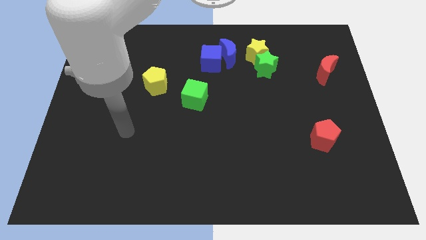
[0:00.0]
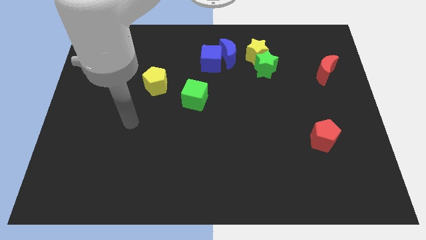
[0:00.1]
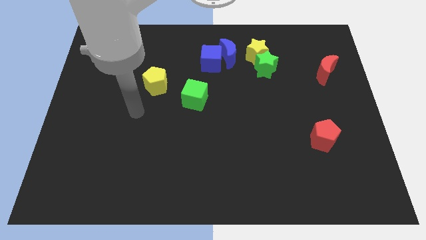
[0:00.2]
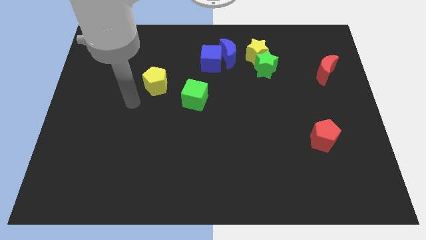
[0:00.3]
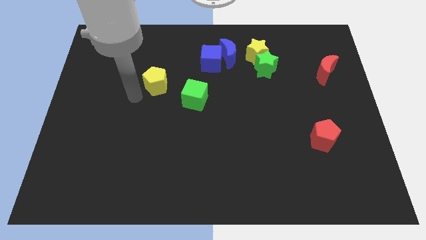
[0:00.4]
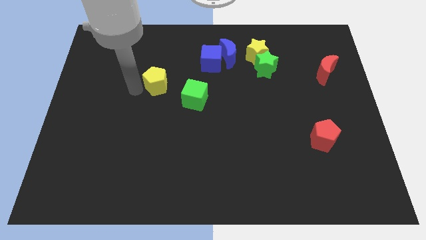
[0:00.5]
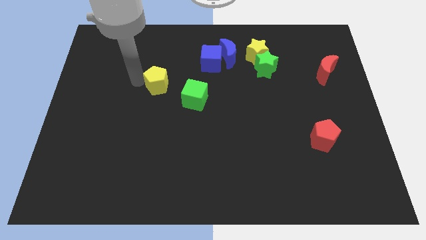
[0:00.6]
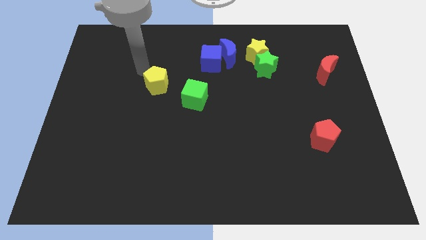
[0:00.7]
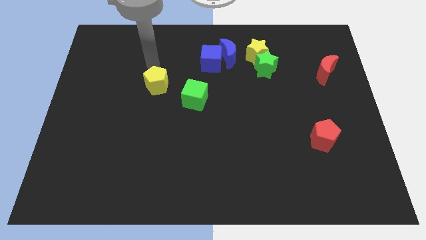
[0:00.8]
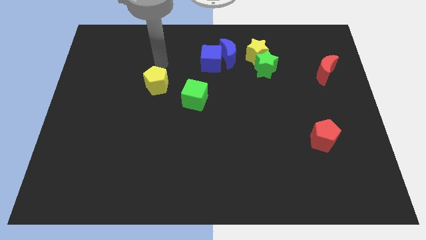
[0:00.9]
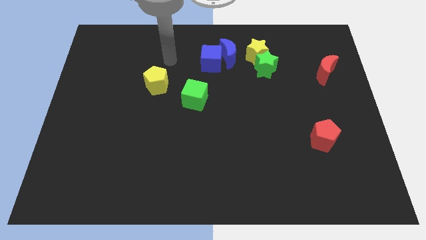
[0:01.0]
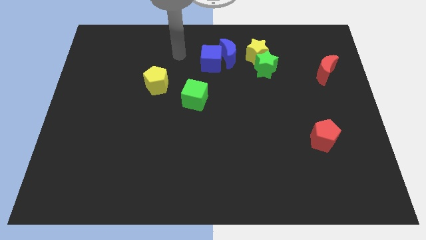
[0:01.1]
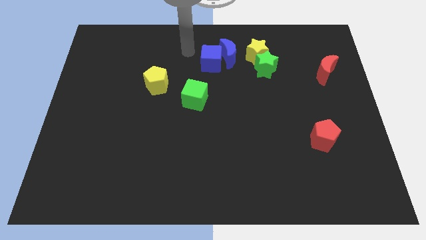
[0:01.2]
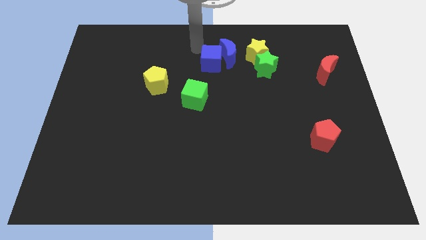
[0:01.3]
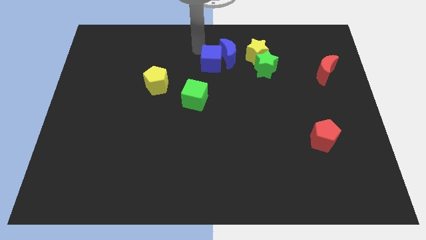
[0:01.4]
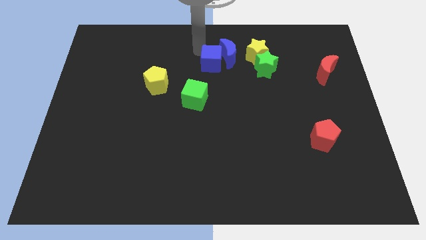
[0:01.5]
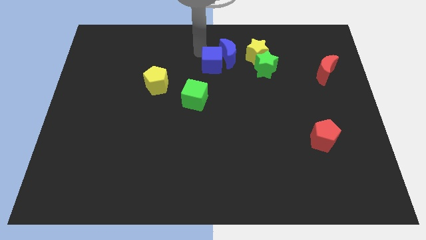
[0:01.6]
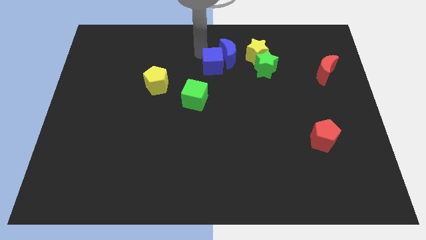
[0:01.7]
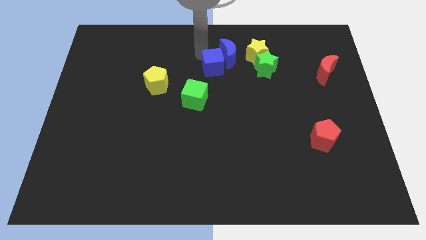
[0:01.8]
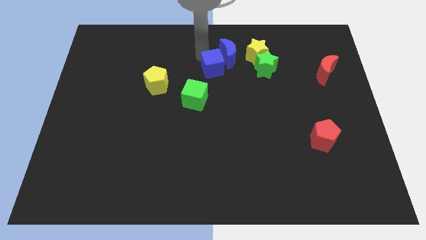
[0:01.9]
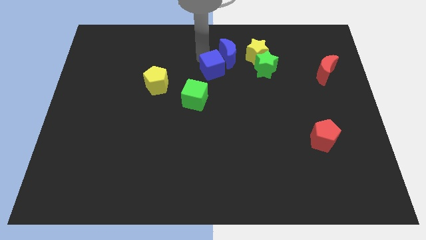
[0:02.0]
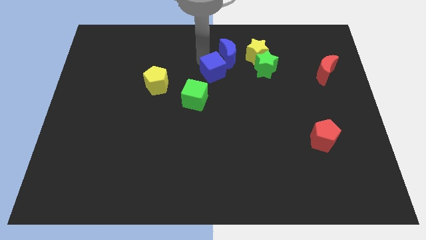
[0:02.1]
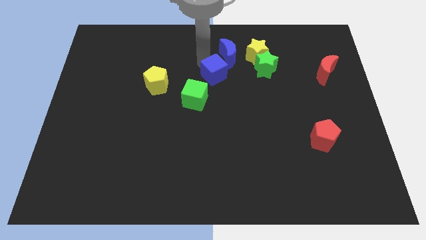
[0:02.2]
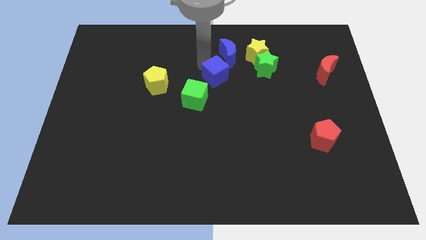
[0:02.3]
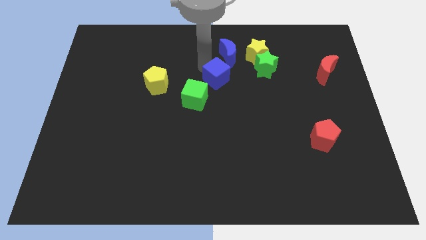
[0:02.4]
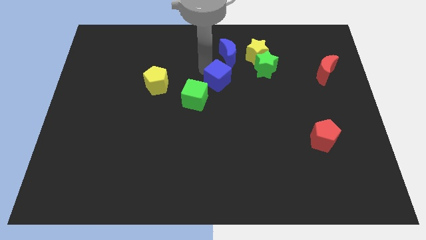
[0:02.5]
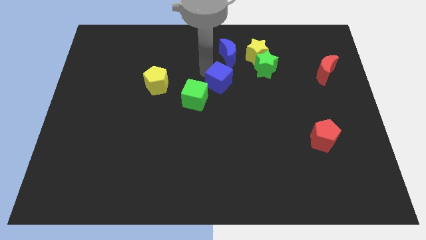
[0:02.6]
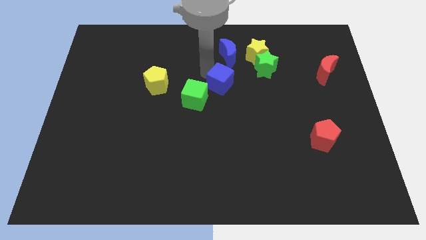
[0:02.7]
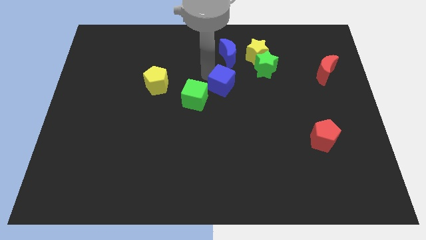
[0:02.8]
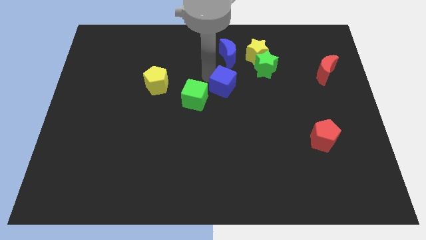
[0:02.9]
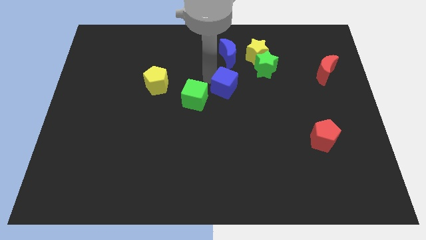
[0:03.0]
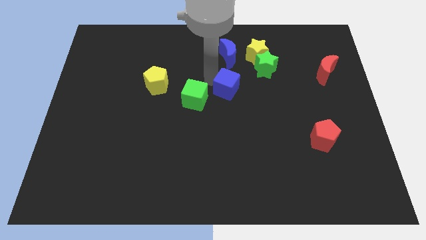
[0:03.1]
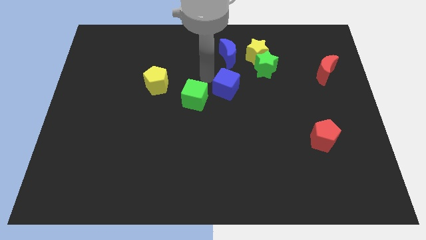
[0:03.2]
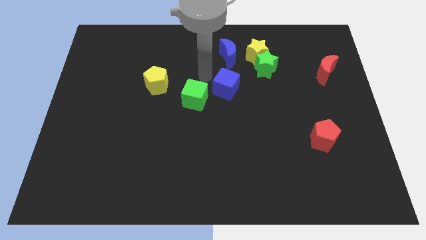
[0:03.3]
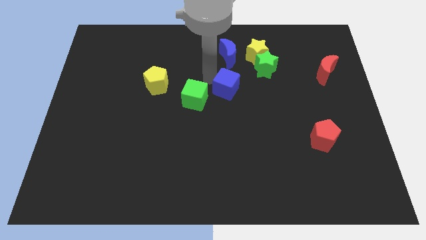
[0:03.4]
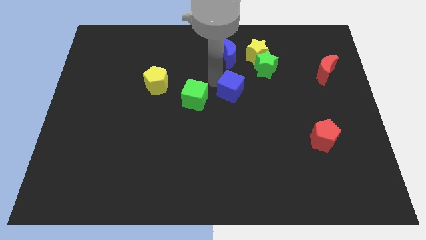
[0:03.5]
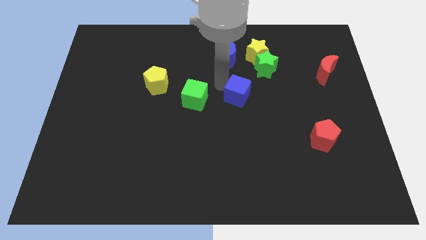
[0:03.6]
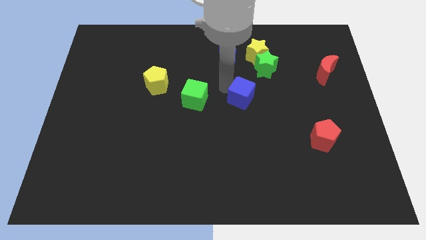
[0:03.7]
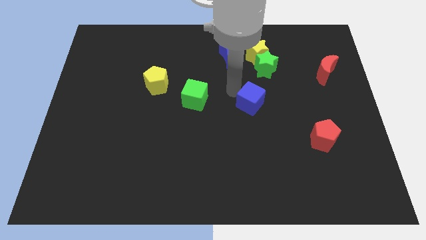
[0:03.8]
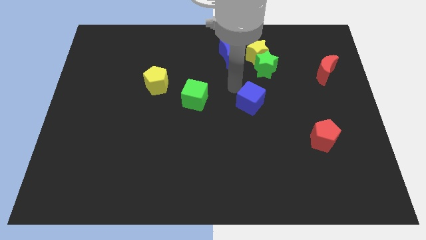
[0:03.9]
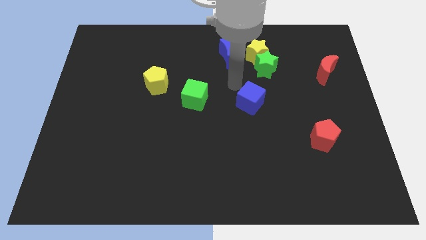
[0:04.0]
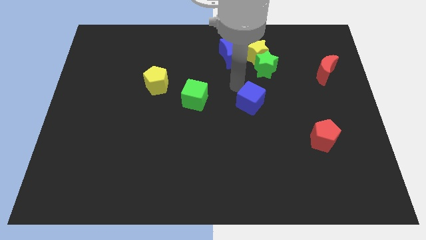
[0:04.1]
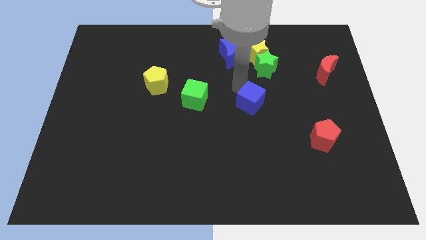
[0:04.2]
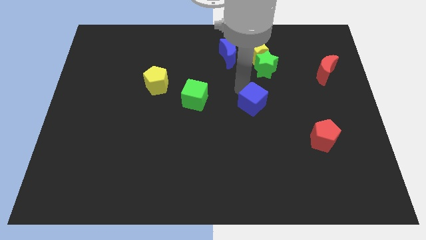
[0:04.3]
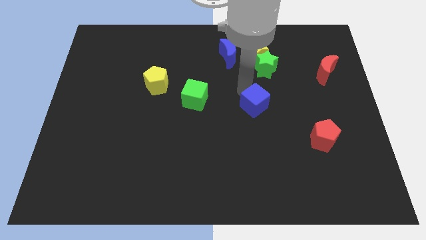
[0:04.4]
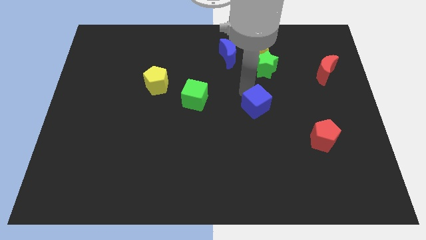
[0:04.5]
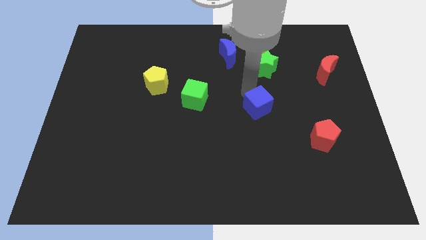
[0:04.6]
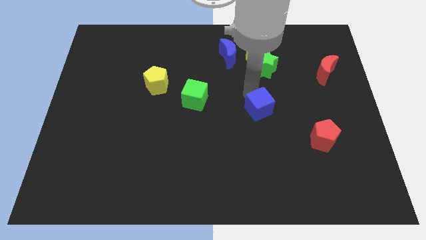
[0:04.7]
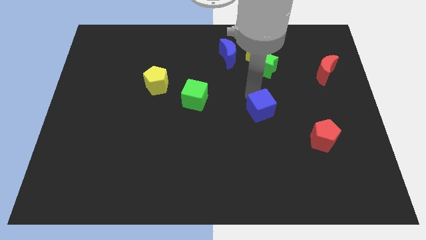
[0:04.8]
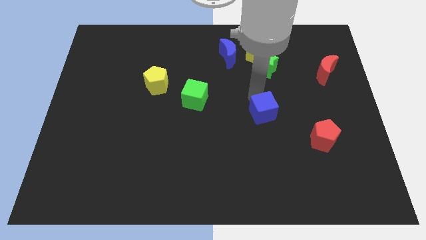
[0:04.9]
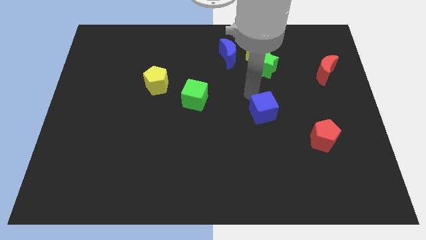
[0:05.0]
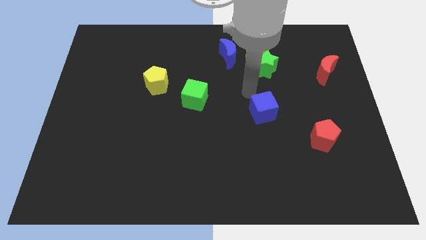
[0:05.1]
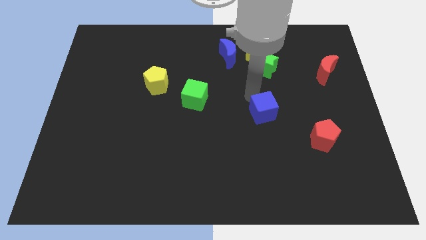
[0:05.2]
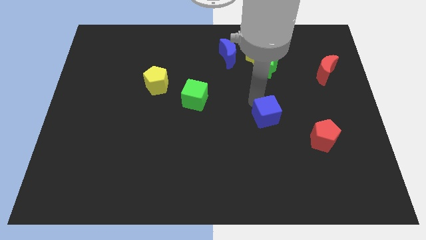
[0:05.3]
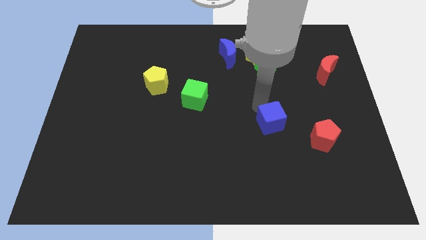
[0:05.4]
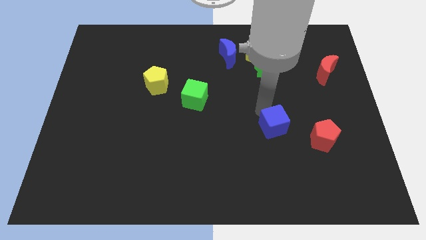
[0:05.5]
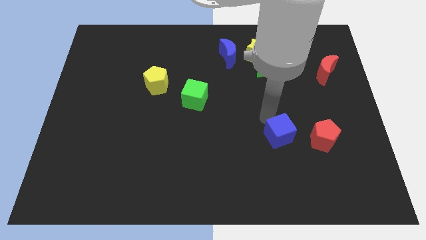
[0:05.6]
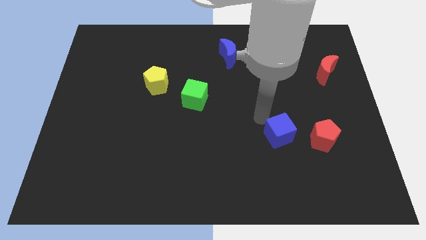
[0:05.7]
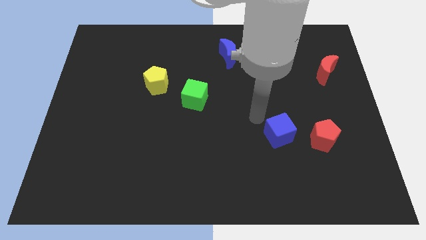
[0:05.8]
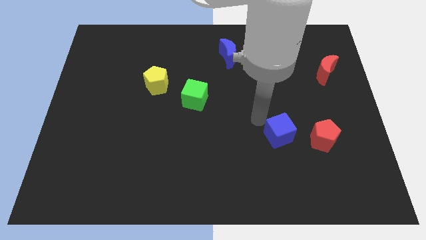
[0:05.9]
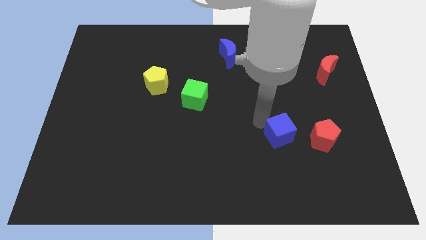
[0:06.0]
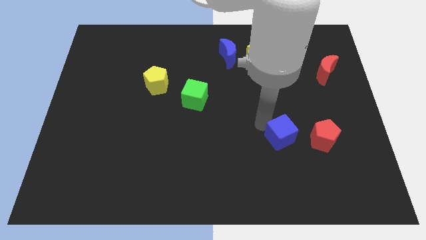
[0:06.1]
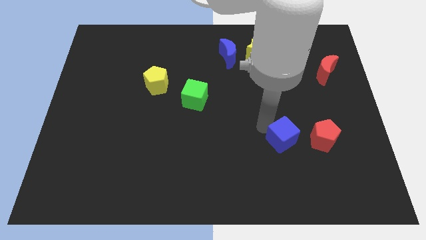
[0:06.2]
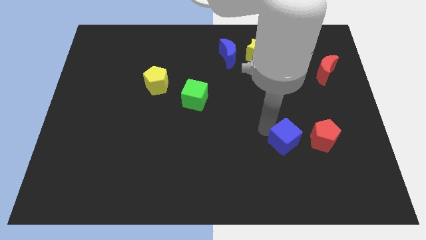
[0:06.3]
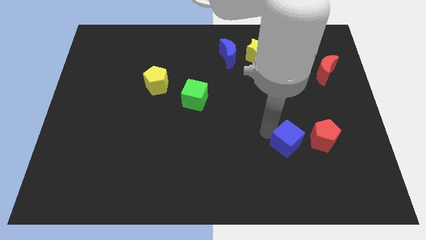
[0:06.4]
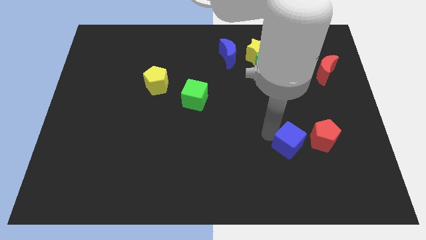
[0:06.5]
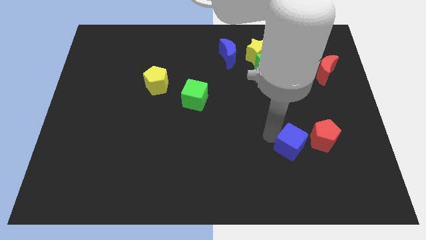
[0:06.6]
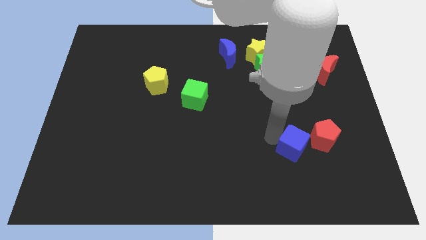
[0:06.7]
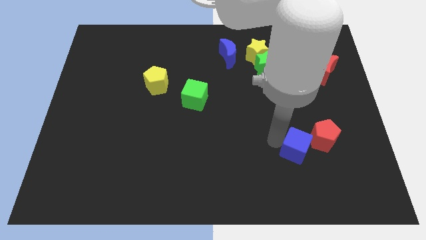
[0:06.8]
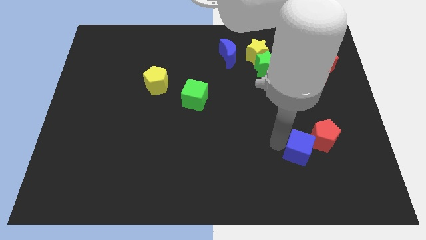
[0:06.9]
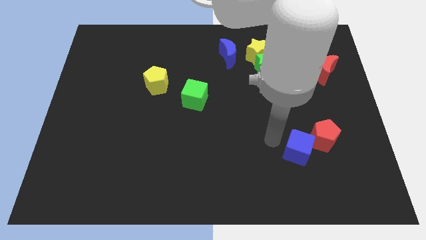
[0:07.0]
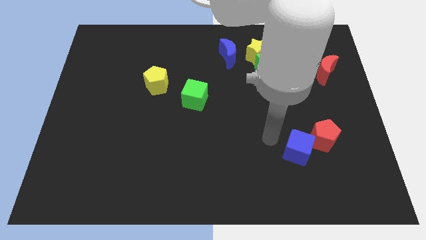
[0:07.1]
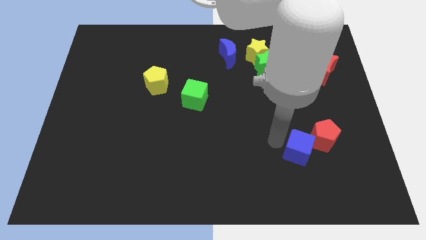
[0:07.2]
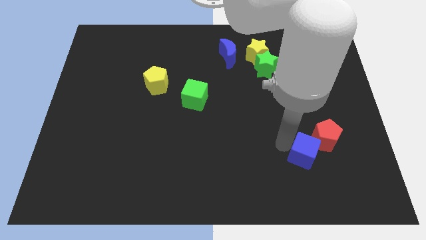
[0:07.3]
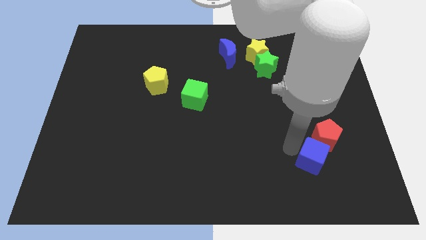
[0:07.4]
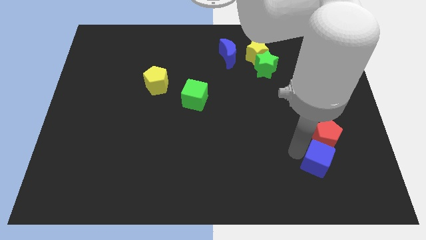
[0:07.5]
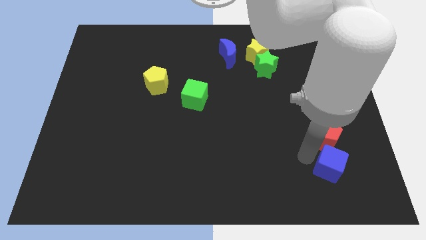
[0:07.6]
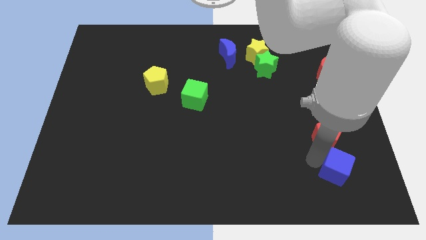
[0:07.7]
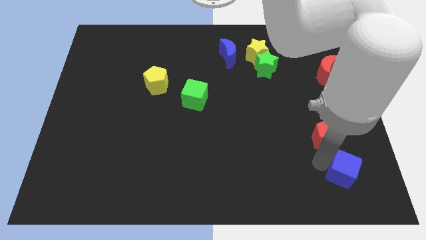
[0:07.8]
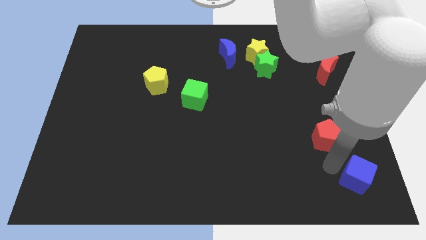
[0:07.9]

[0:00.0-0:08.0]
push the blue cube to the lower right corner
